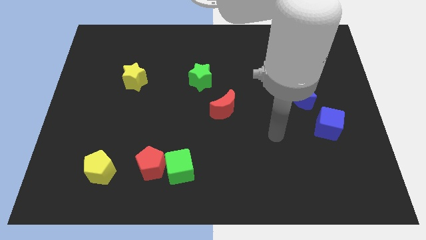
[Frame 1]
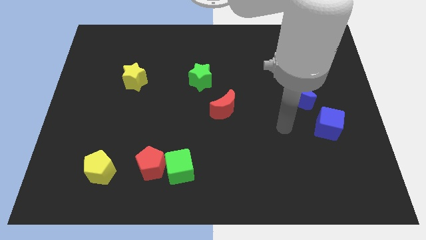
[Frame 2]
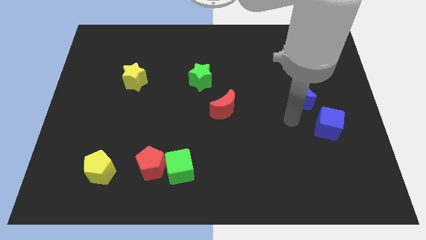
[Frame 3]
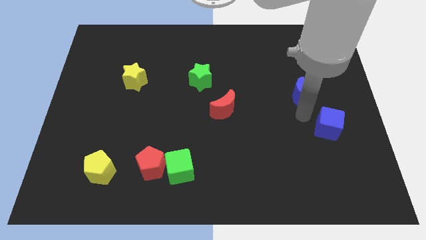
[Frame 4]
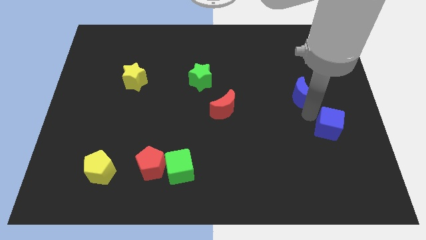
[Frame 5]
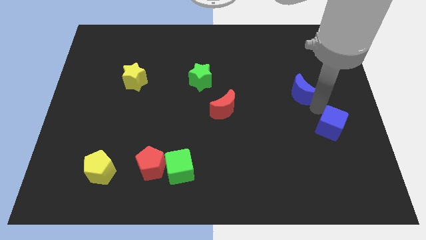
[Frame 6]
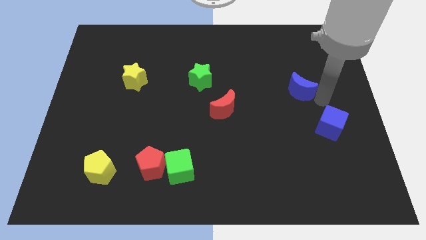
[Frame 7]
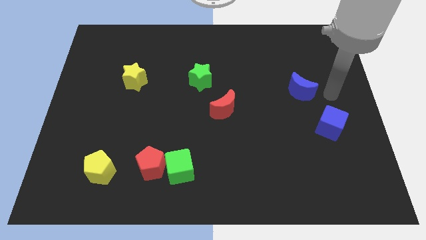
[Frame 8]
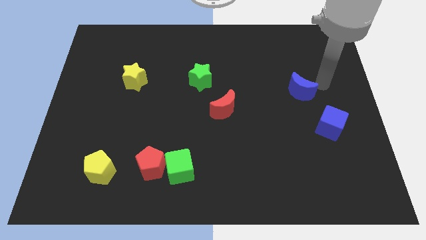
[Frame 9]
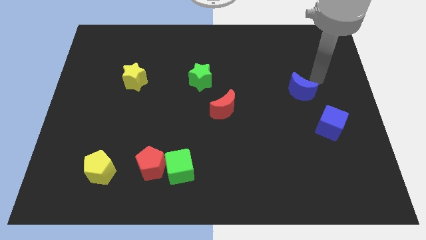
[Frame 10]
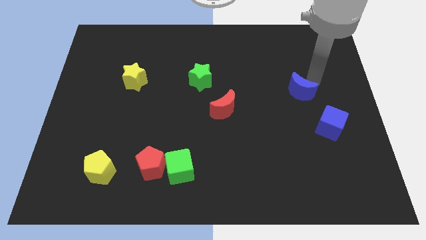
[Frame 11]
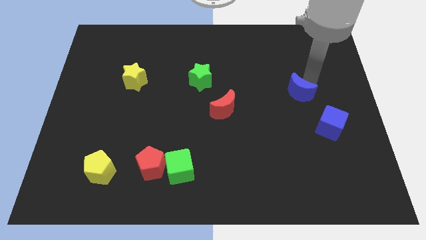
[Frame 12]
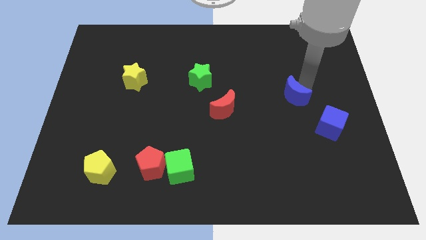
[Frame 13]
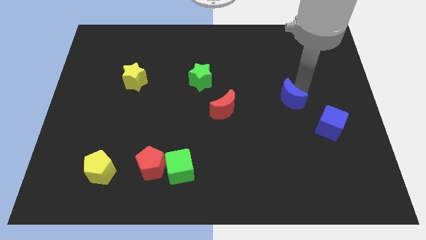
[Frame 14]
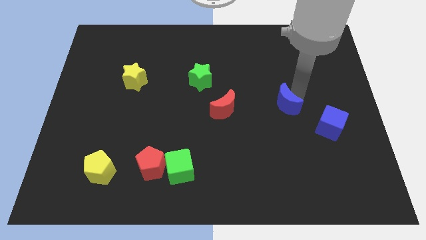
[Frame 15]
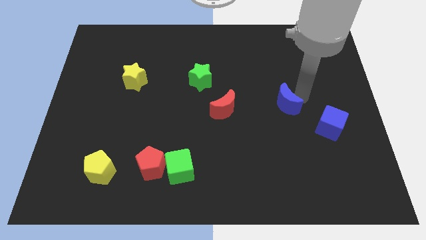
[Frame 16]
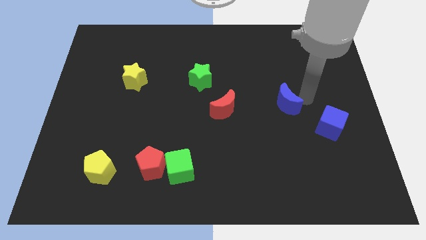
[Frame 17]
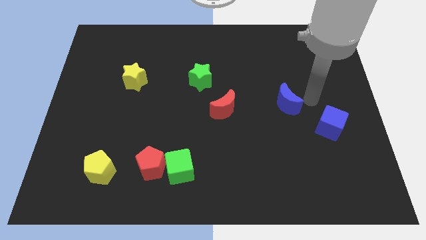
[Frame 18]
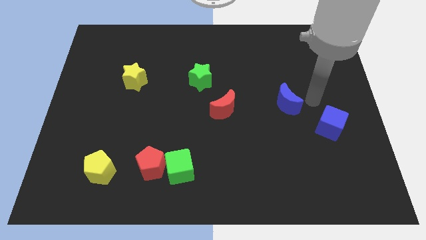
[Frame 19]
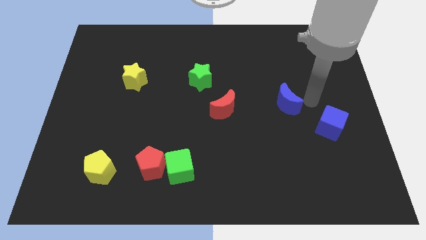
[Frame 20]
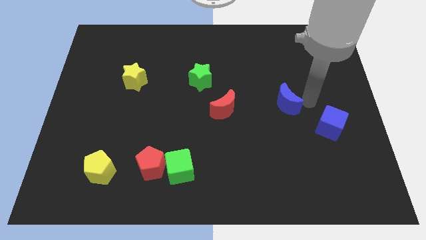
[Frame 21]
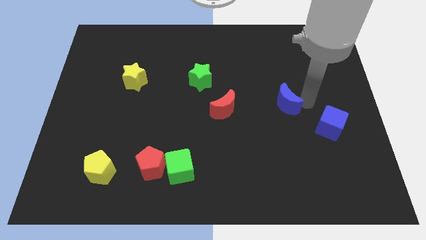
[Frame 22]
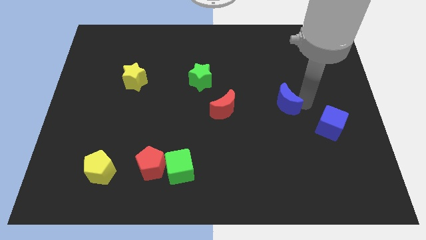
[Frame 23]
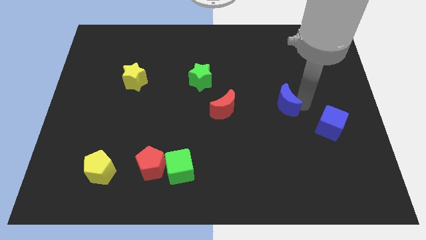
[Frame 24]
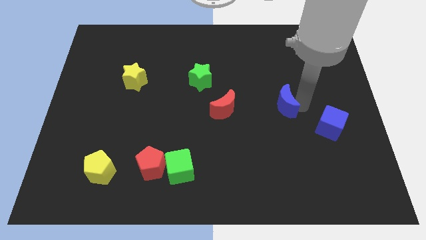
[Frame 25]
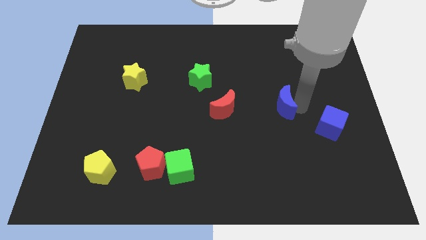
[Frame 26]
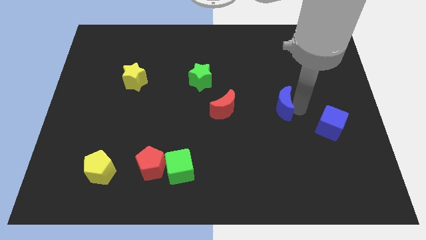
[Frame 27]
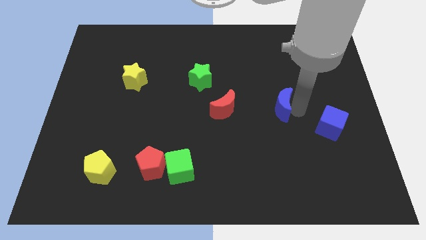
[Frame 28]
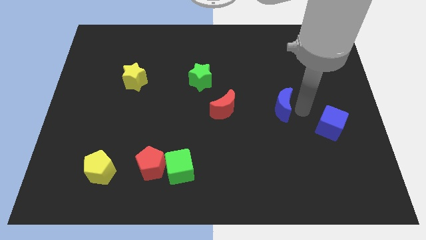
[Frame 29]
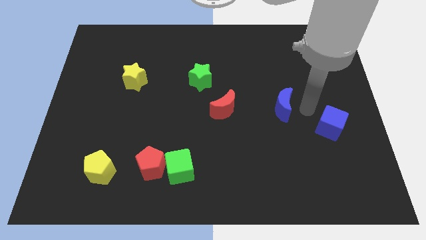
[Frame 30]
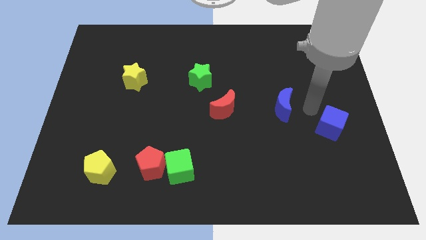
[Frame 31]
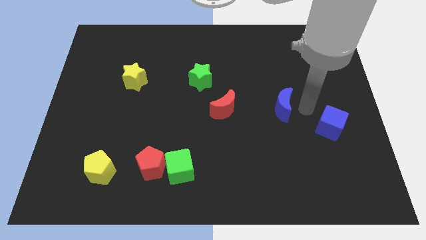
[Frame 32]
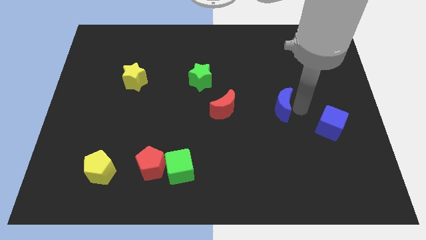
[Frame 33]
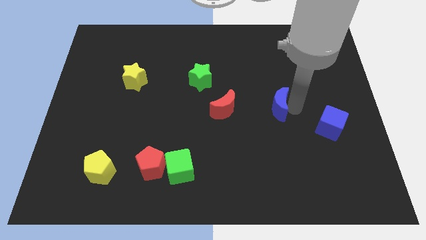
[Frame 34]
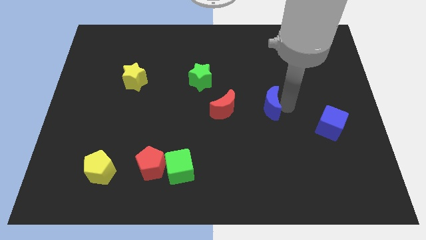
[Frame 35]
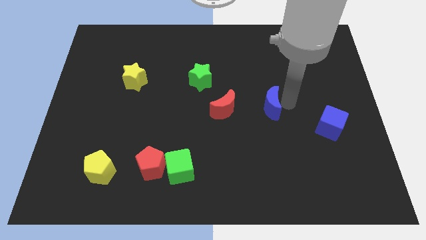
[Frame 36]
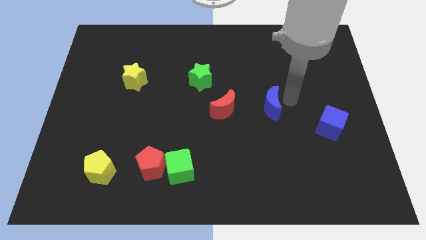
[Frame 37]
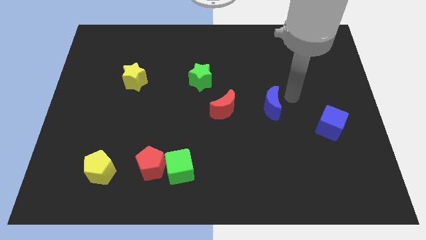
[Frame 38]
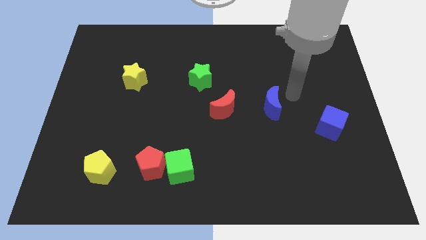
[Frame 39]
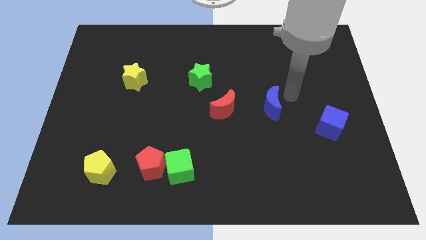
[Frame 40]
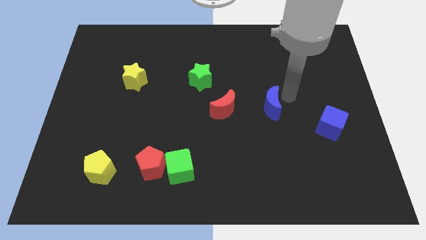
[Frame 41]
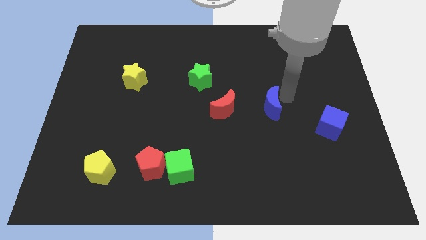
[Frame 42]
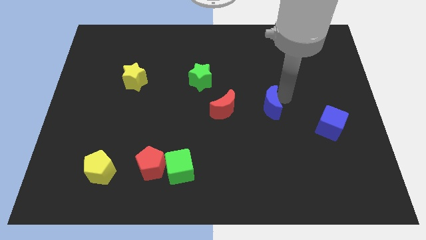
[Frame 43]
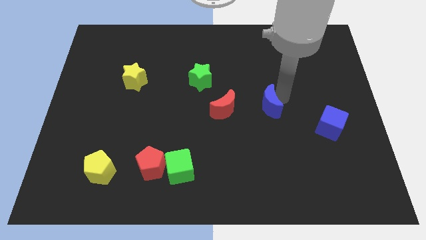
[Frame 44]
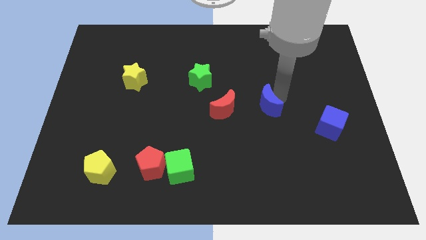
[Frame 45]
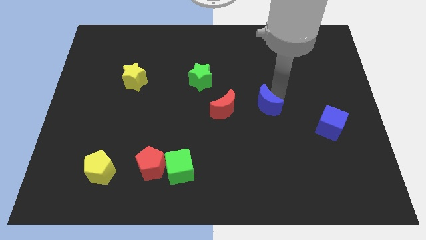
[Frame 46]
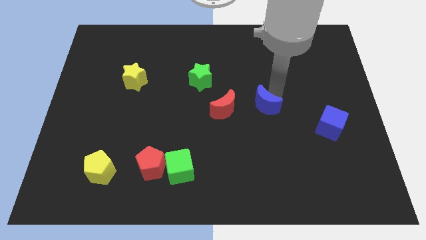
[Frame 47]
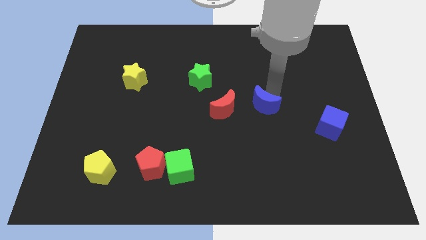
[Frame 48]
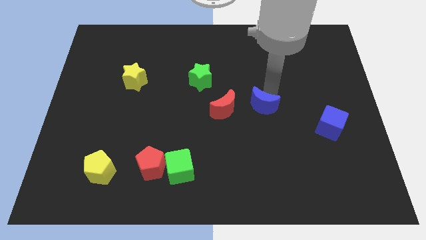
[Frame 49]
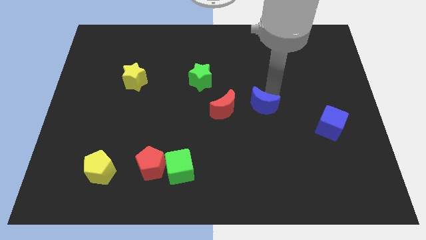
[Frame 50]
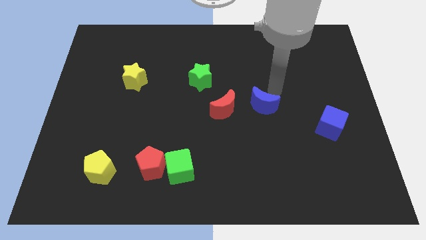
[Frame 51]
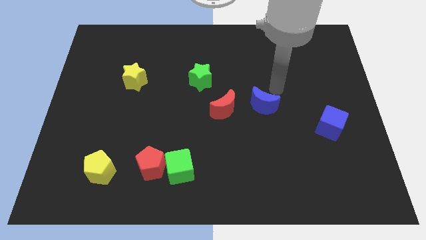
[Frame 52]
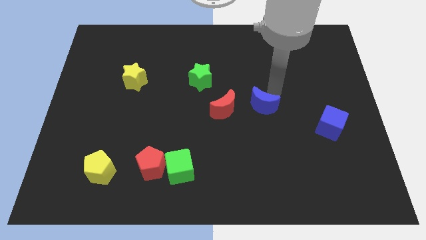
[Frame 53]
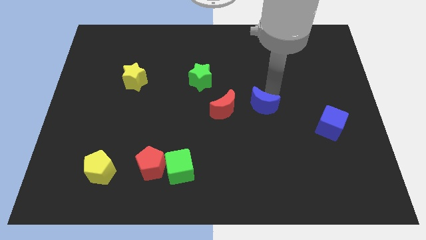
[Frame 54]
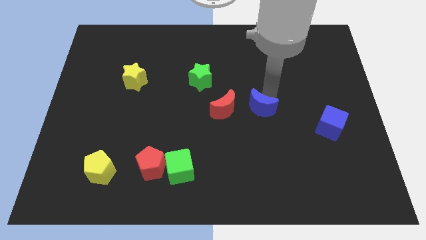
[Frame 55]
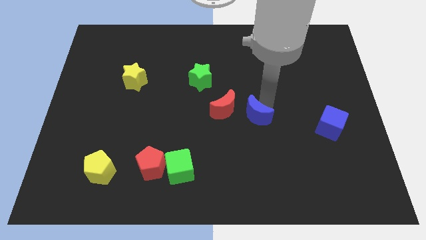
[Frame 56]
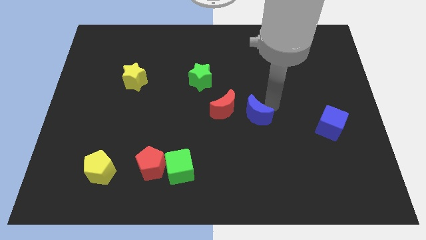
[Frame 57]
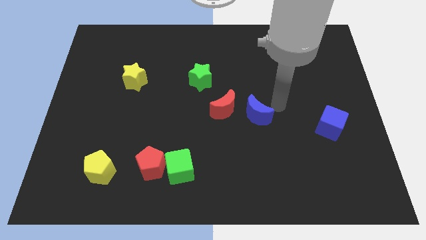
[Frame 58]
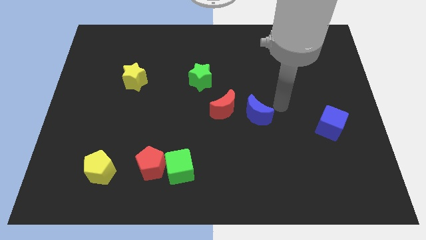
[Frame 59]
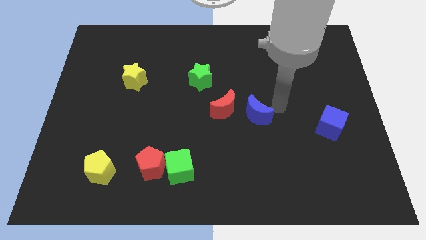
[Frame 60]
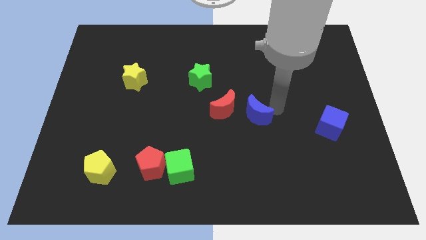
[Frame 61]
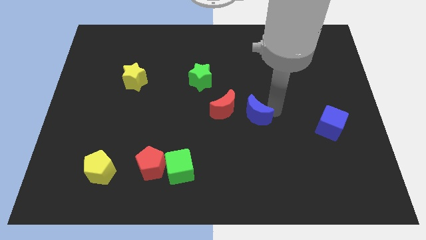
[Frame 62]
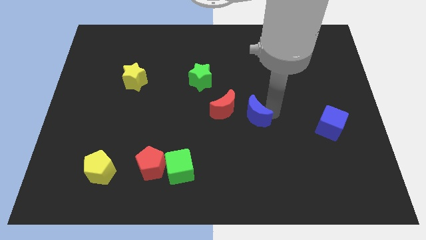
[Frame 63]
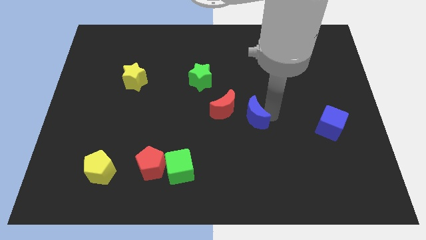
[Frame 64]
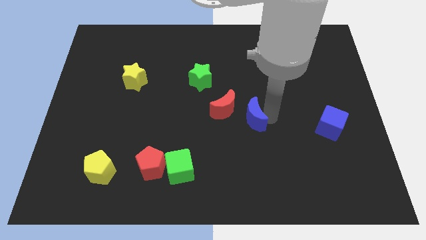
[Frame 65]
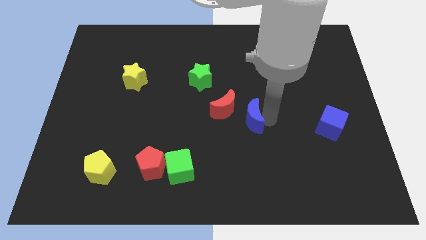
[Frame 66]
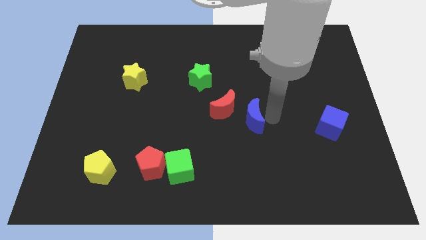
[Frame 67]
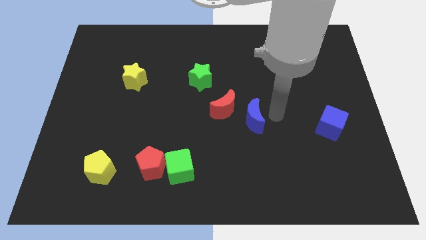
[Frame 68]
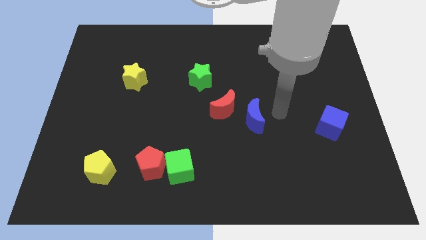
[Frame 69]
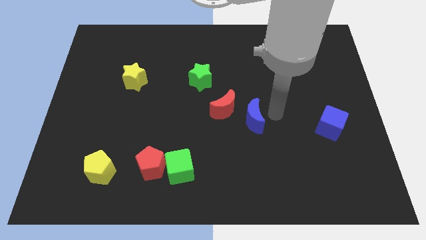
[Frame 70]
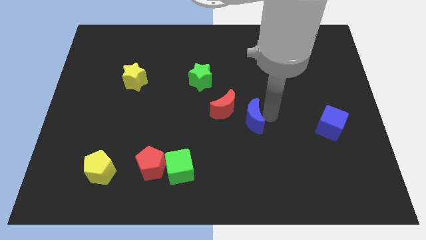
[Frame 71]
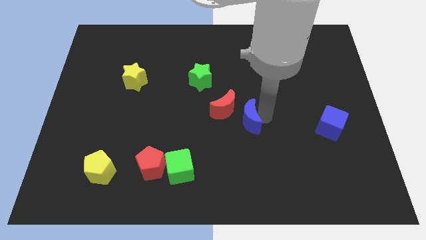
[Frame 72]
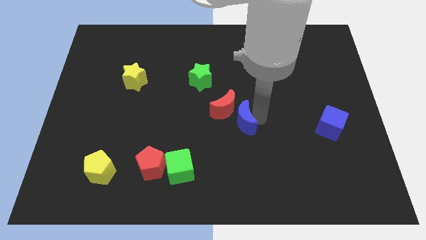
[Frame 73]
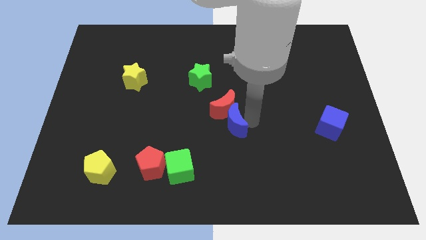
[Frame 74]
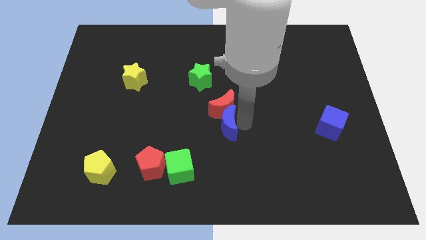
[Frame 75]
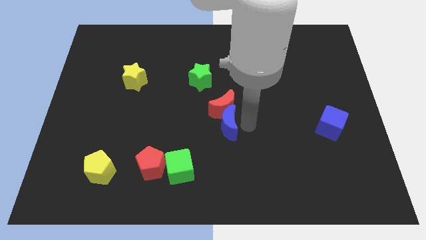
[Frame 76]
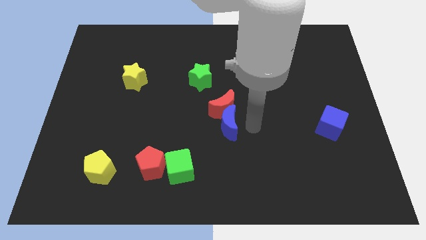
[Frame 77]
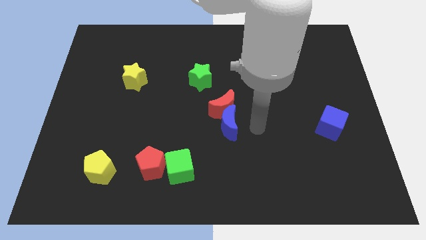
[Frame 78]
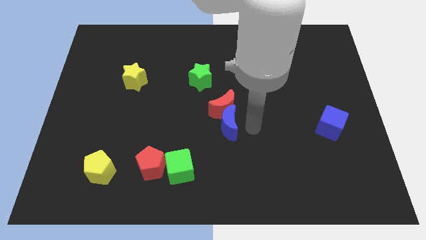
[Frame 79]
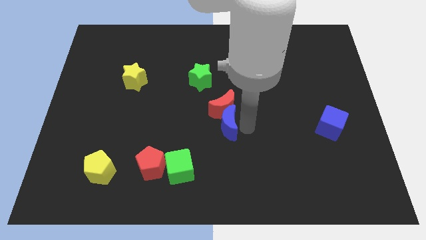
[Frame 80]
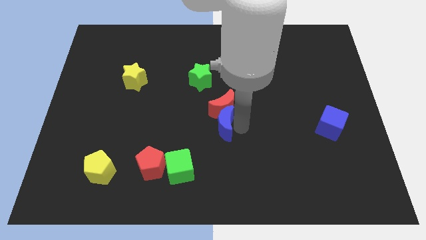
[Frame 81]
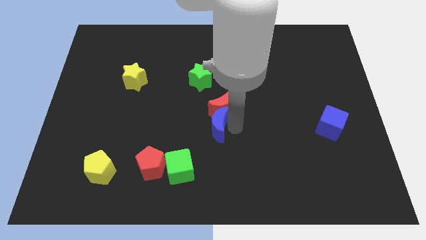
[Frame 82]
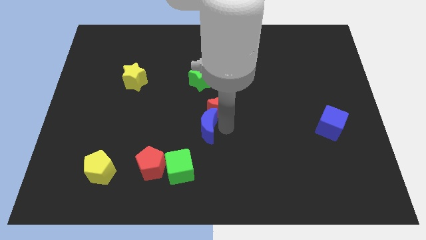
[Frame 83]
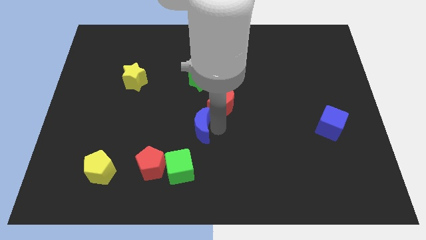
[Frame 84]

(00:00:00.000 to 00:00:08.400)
push the blue moon above the green cube
